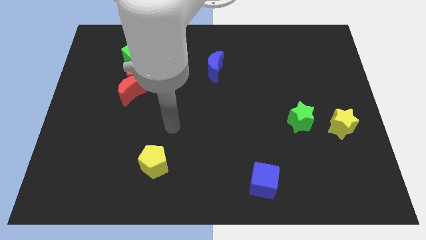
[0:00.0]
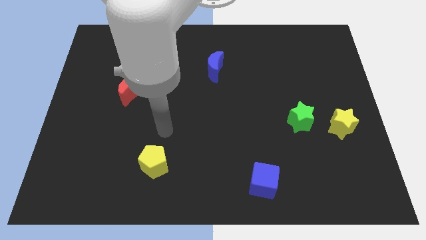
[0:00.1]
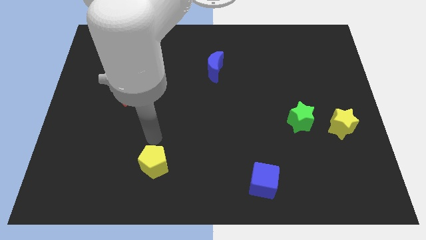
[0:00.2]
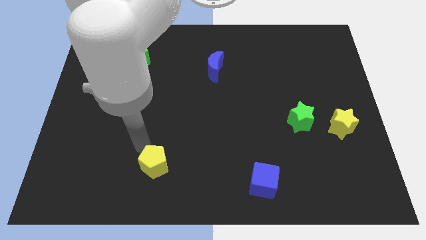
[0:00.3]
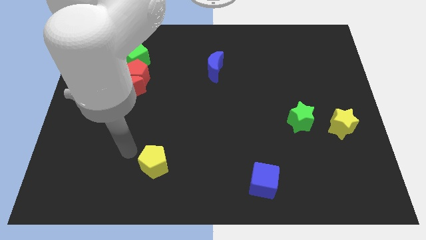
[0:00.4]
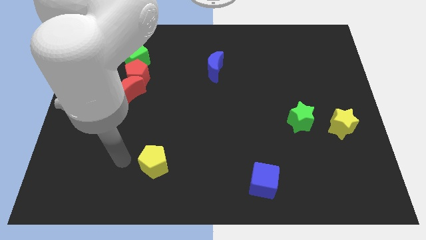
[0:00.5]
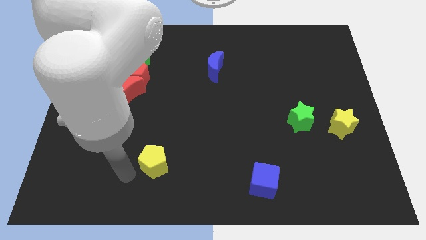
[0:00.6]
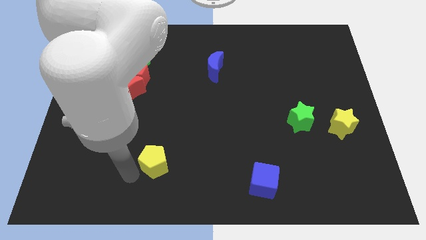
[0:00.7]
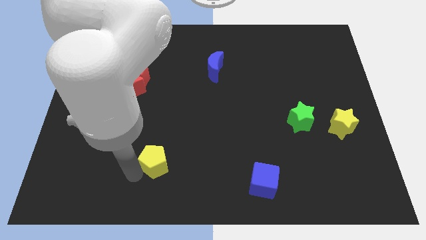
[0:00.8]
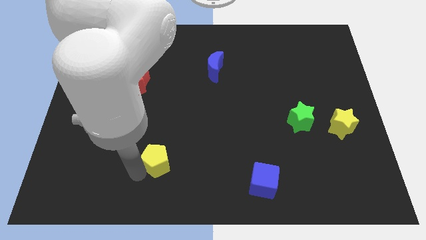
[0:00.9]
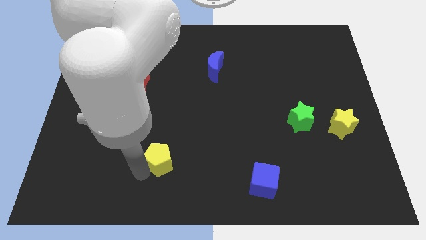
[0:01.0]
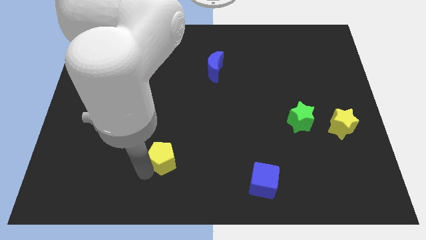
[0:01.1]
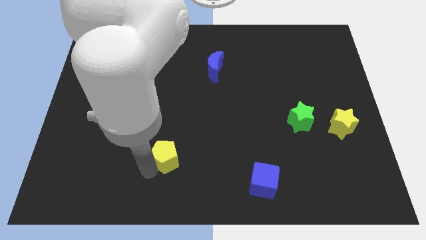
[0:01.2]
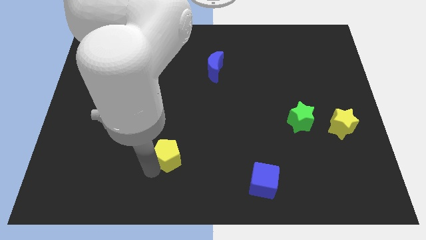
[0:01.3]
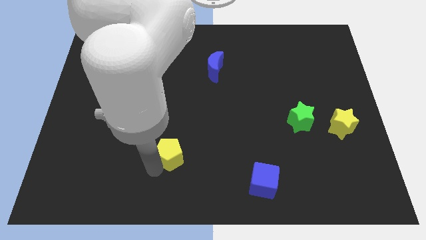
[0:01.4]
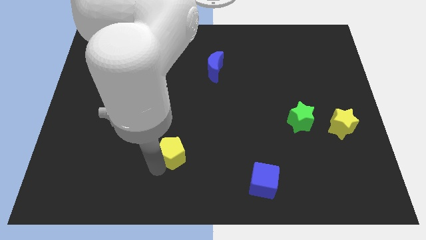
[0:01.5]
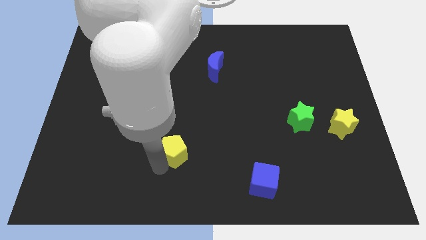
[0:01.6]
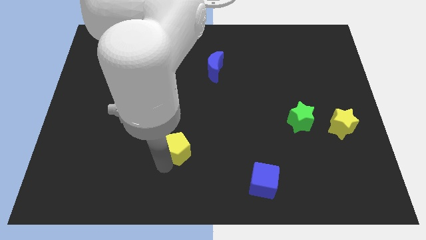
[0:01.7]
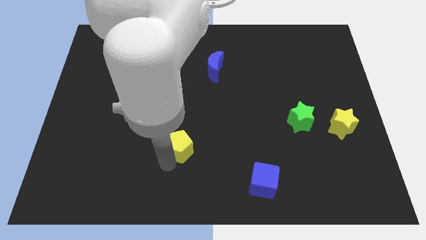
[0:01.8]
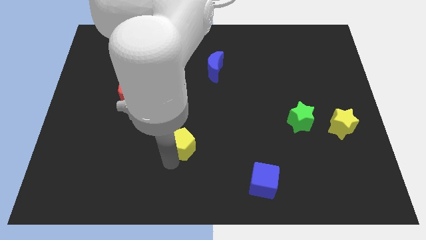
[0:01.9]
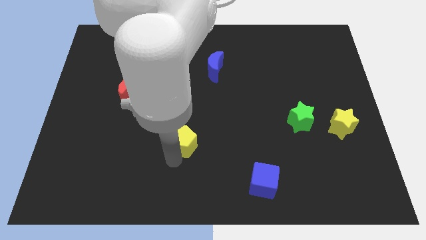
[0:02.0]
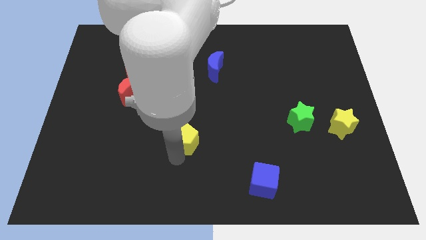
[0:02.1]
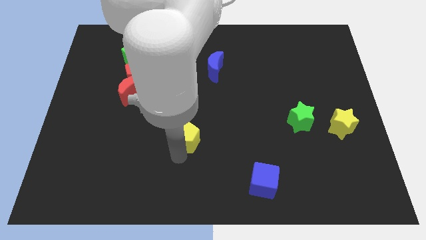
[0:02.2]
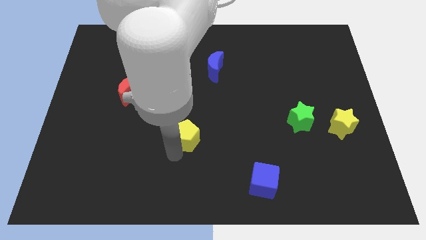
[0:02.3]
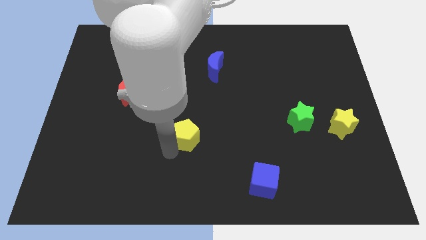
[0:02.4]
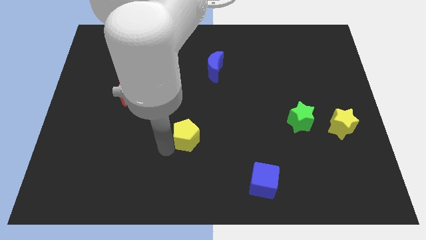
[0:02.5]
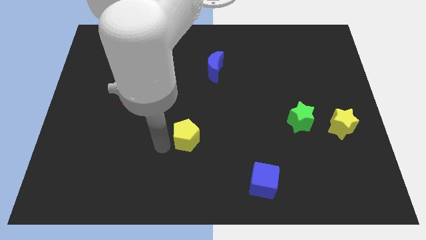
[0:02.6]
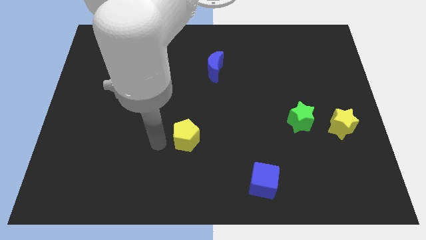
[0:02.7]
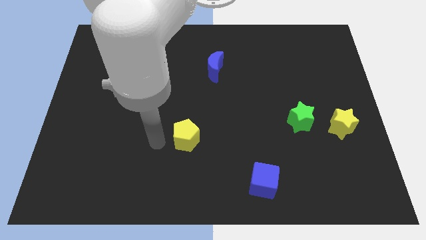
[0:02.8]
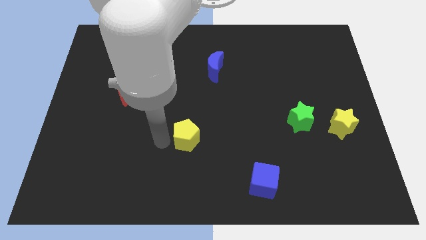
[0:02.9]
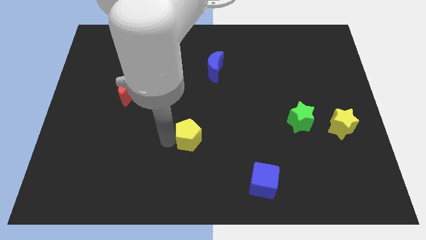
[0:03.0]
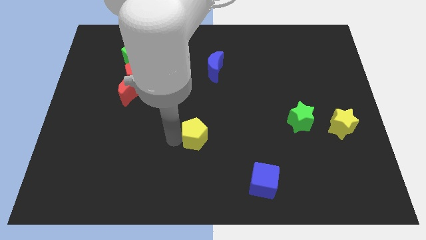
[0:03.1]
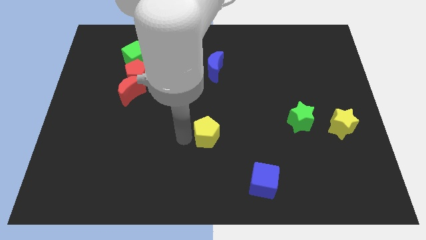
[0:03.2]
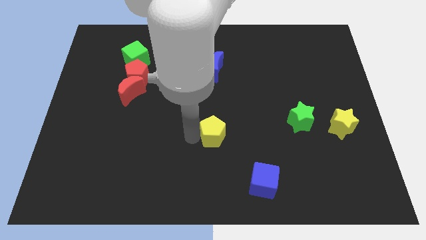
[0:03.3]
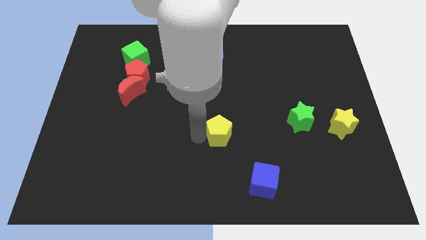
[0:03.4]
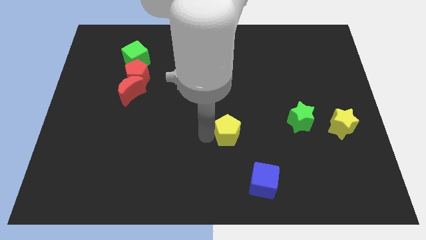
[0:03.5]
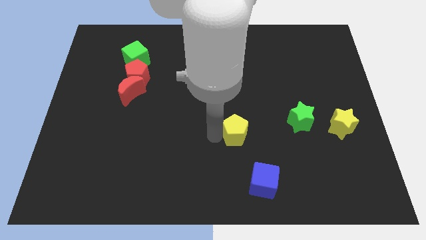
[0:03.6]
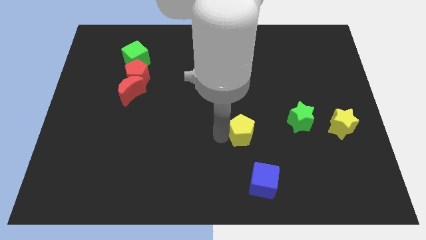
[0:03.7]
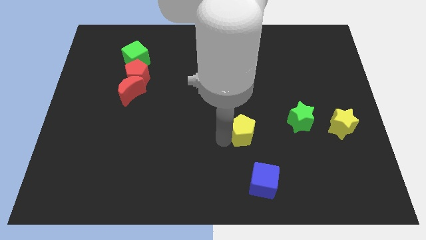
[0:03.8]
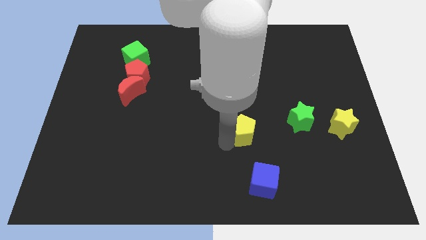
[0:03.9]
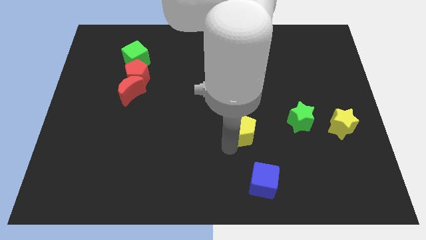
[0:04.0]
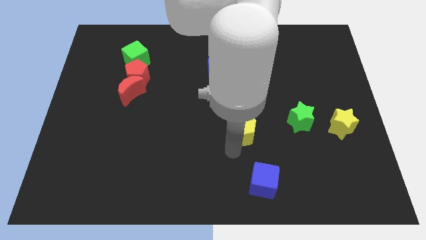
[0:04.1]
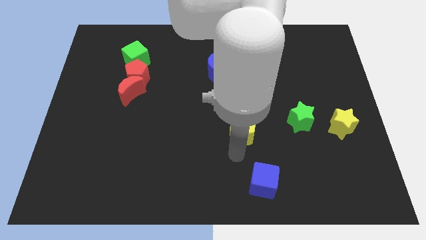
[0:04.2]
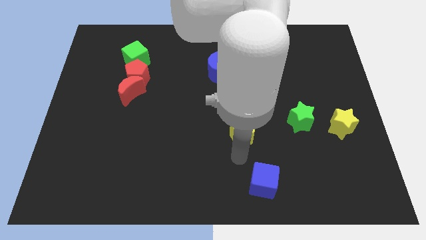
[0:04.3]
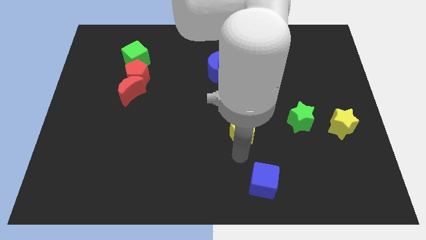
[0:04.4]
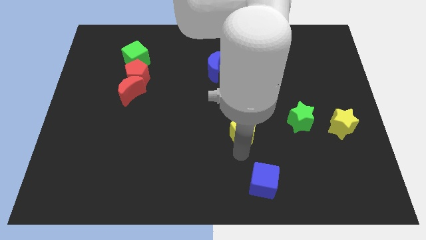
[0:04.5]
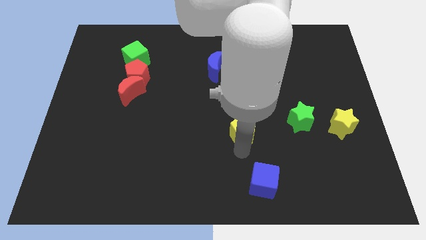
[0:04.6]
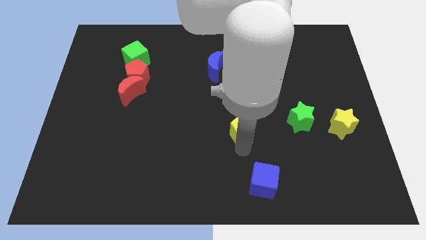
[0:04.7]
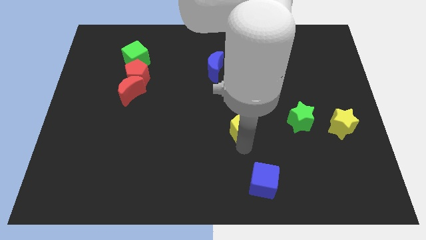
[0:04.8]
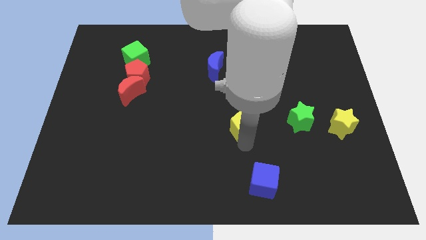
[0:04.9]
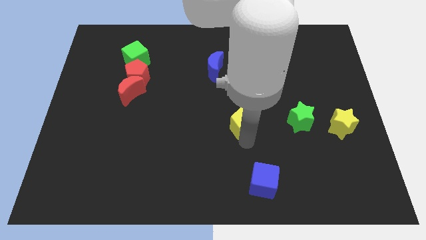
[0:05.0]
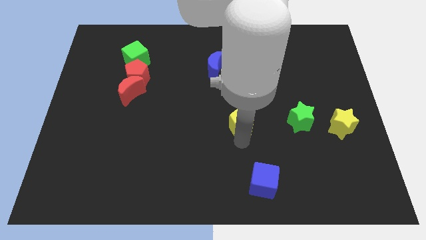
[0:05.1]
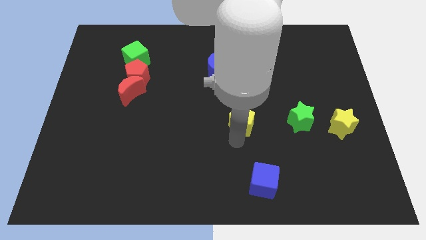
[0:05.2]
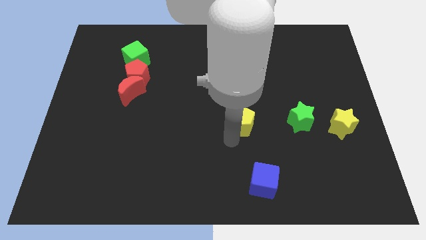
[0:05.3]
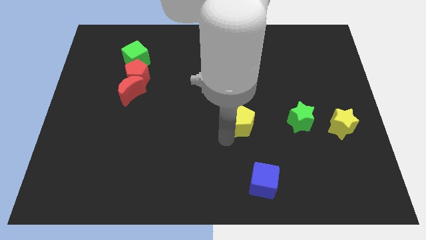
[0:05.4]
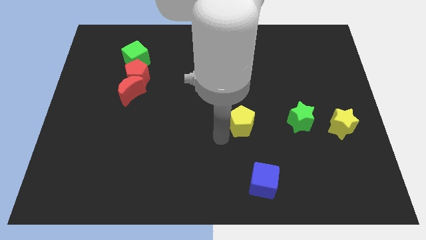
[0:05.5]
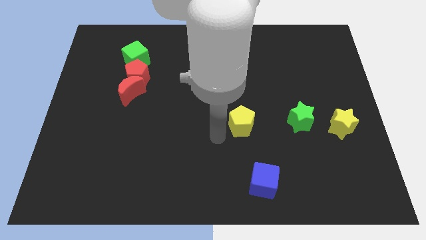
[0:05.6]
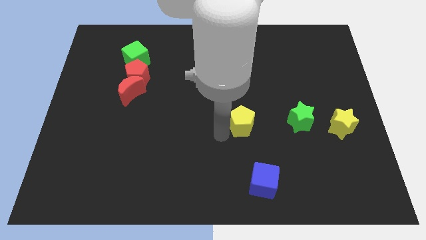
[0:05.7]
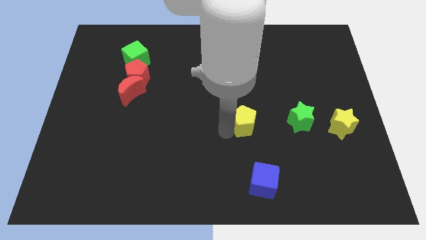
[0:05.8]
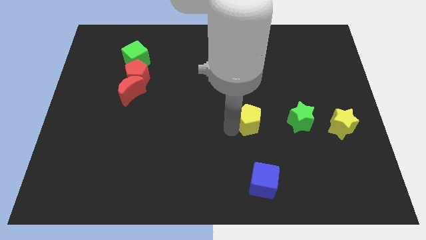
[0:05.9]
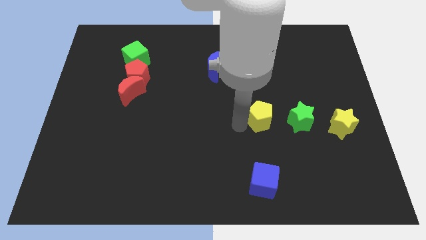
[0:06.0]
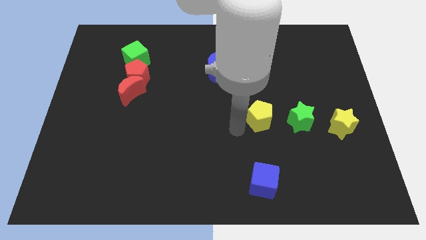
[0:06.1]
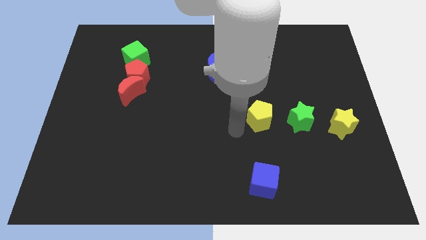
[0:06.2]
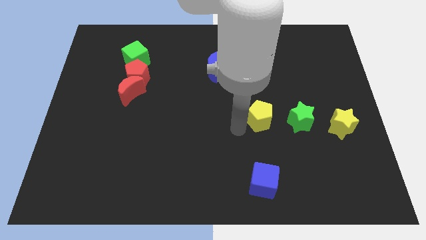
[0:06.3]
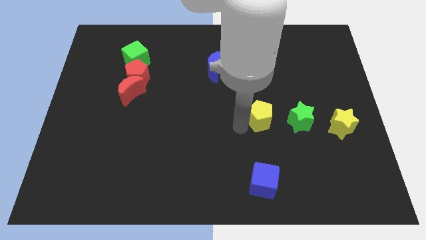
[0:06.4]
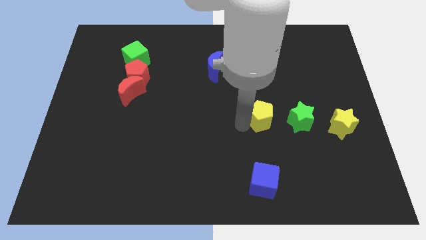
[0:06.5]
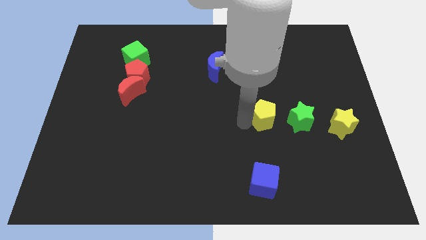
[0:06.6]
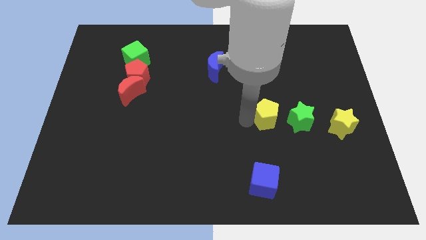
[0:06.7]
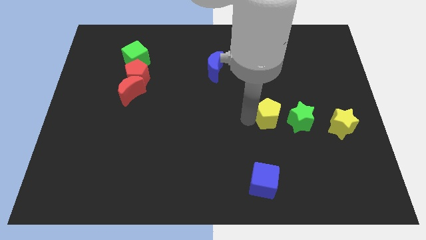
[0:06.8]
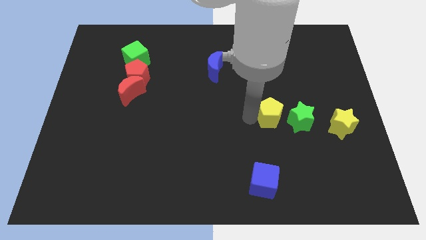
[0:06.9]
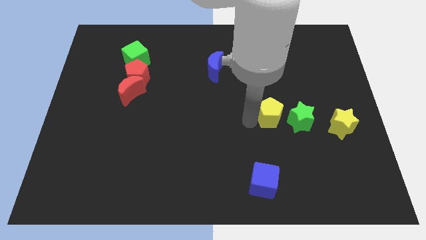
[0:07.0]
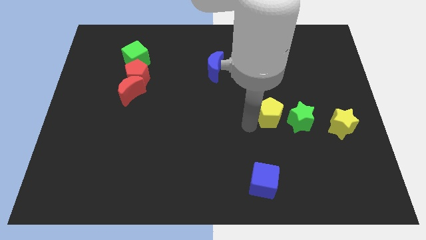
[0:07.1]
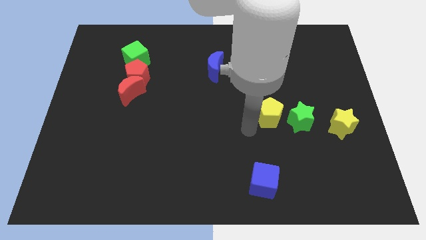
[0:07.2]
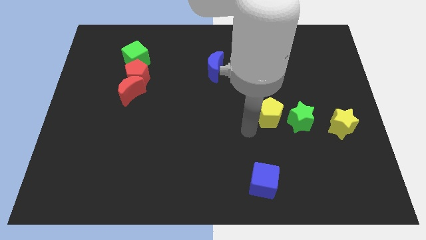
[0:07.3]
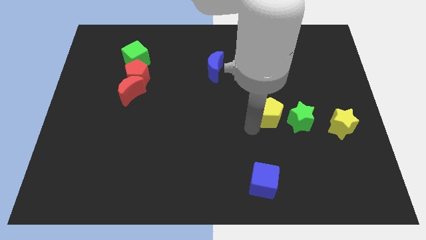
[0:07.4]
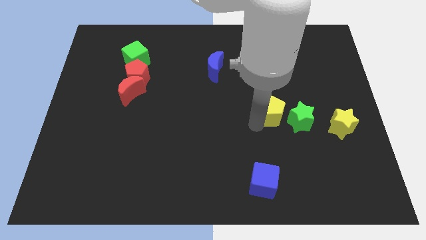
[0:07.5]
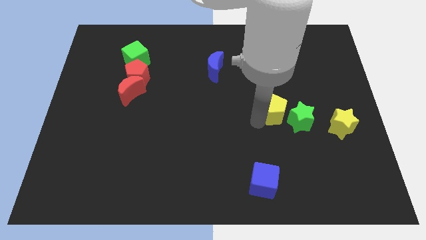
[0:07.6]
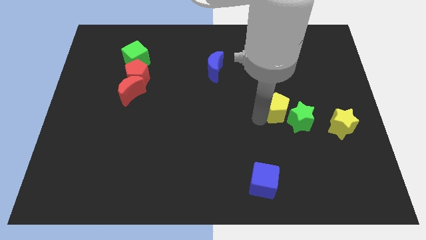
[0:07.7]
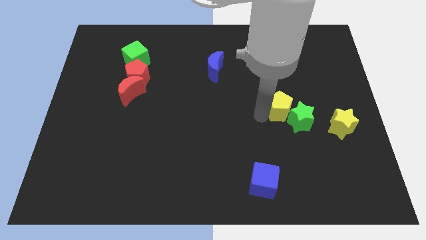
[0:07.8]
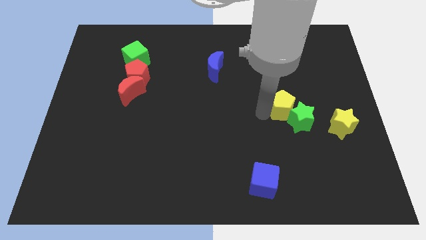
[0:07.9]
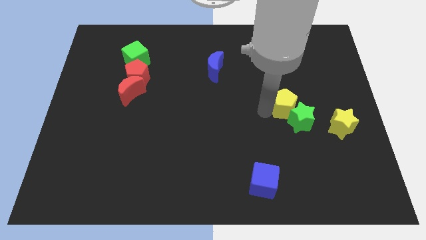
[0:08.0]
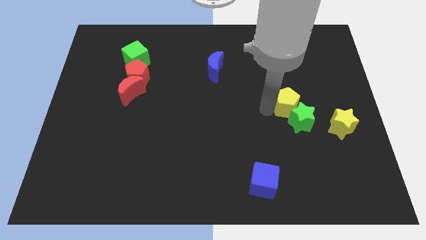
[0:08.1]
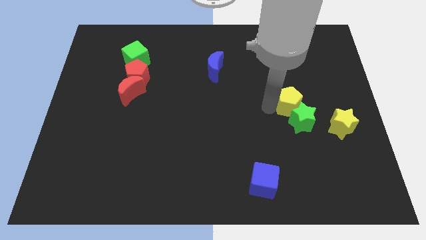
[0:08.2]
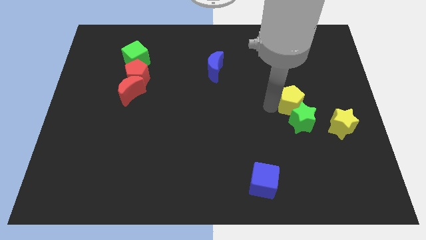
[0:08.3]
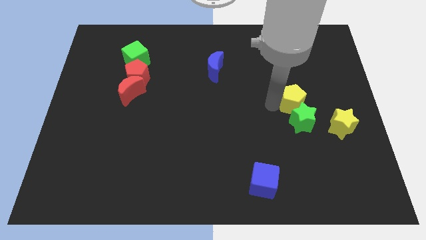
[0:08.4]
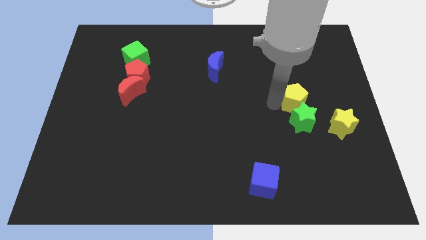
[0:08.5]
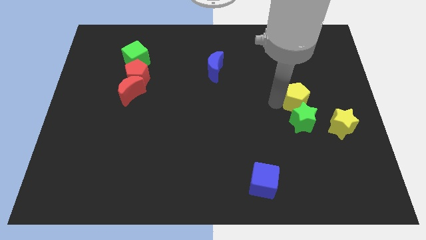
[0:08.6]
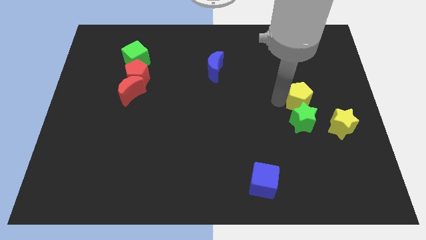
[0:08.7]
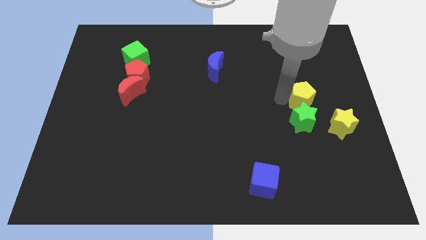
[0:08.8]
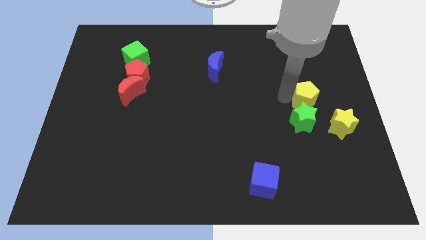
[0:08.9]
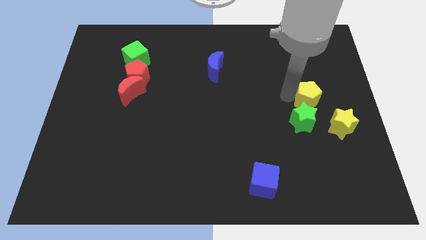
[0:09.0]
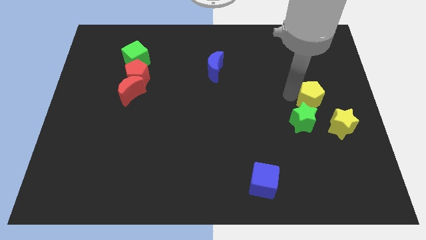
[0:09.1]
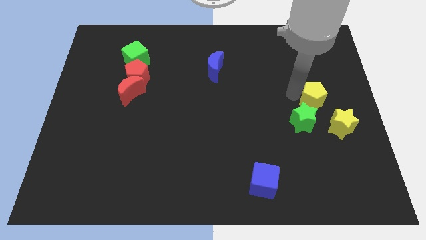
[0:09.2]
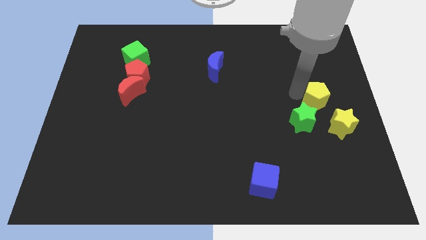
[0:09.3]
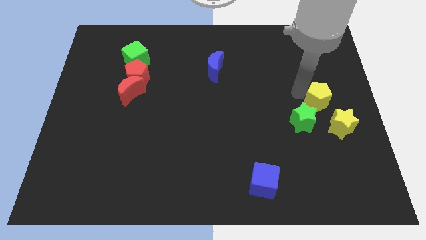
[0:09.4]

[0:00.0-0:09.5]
put the yellow pentagon to the center right
